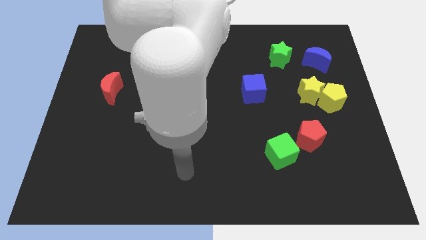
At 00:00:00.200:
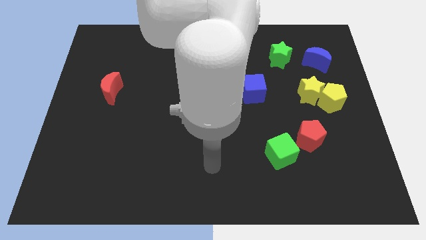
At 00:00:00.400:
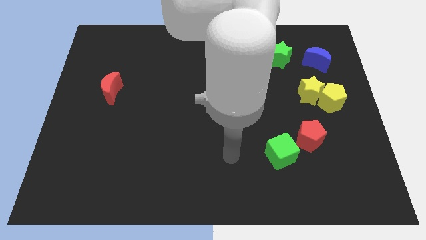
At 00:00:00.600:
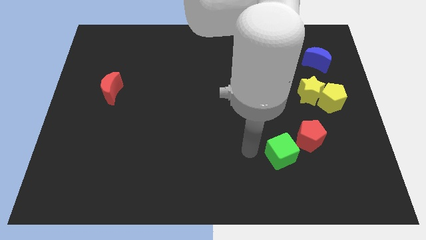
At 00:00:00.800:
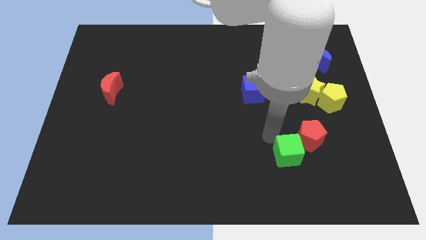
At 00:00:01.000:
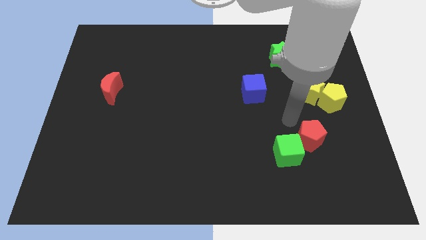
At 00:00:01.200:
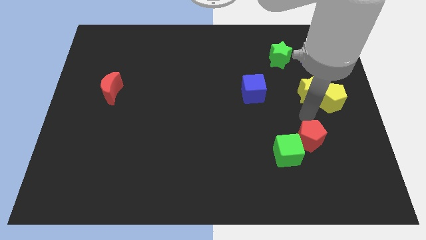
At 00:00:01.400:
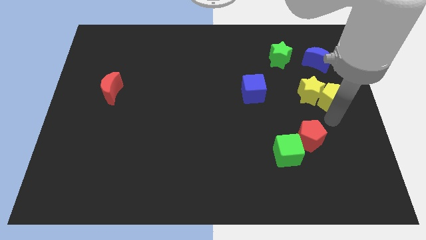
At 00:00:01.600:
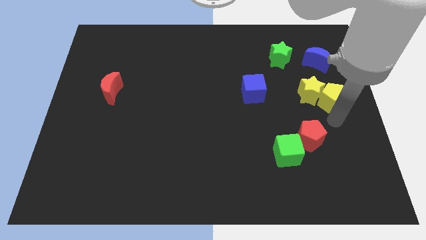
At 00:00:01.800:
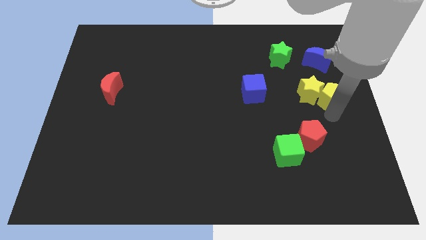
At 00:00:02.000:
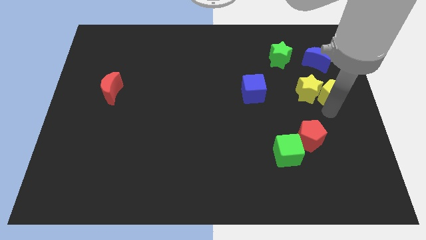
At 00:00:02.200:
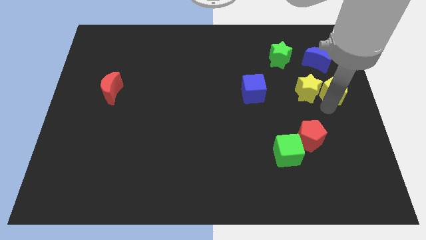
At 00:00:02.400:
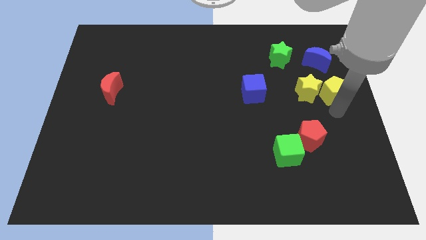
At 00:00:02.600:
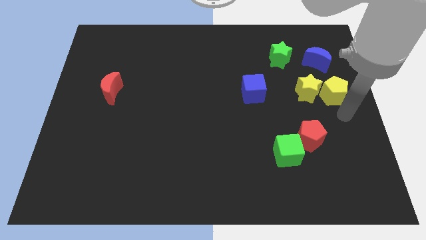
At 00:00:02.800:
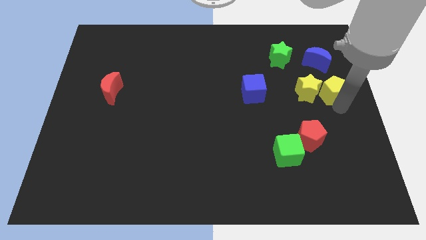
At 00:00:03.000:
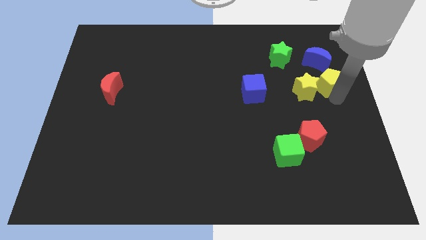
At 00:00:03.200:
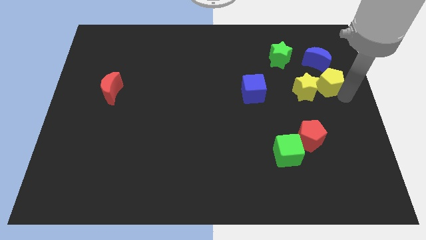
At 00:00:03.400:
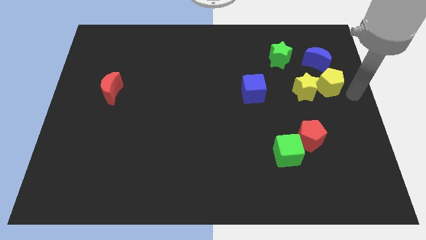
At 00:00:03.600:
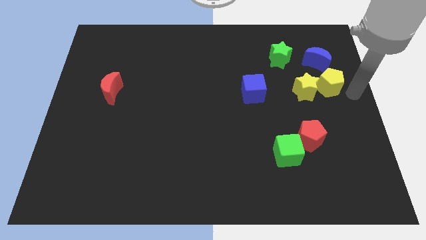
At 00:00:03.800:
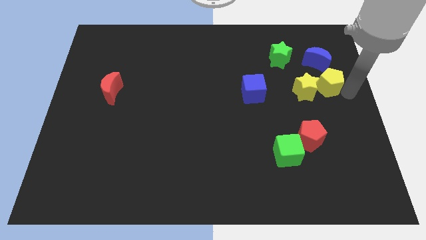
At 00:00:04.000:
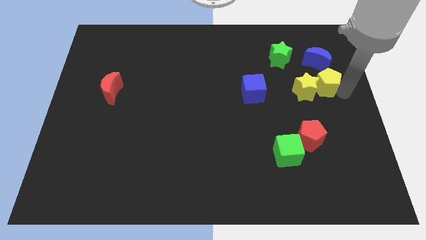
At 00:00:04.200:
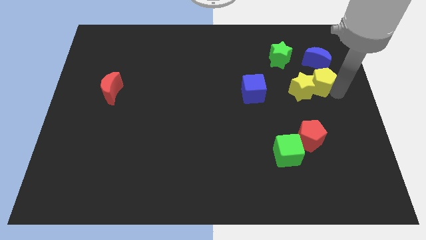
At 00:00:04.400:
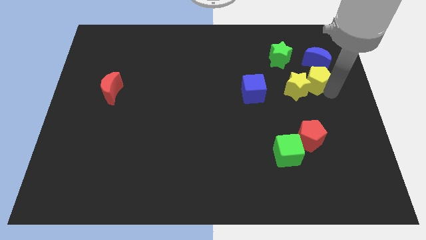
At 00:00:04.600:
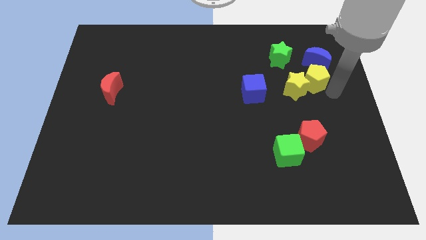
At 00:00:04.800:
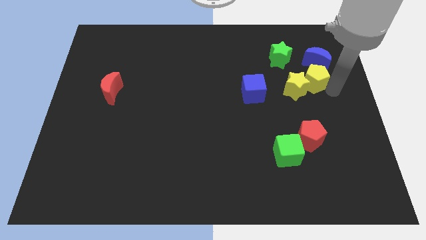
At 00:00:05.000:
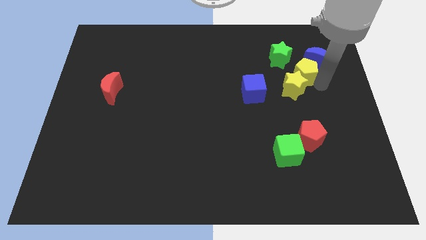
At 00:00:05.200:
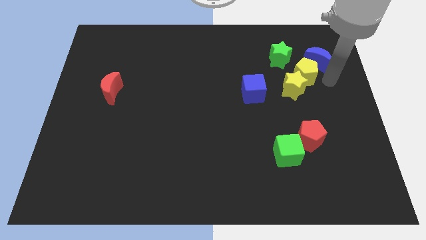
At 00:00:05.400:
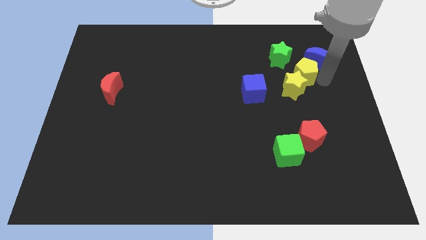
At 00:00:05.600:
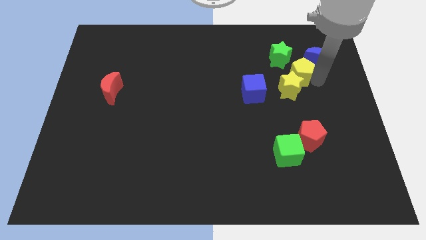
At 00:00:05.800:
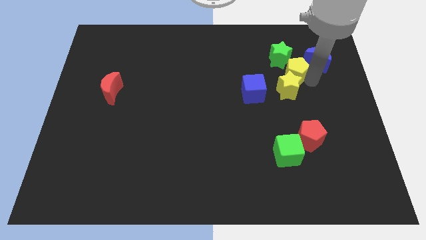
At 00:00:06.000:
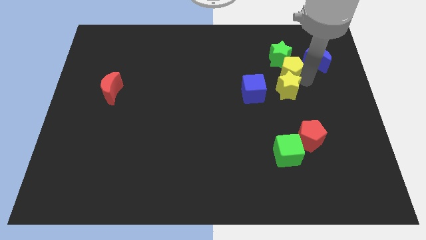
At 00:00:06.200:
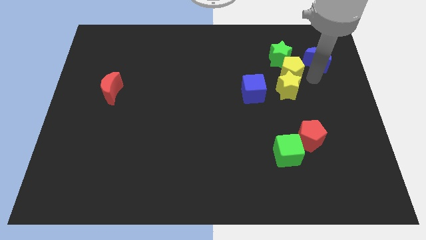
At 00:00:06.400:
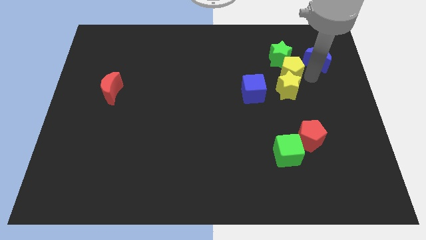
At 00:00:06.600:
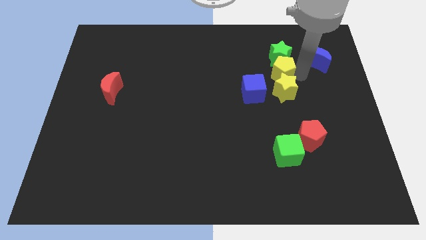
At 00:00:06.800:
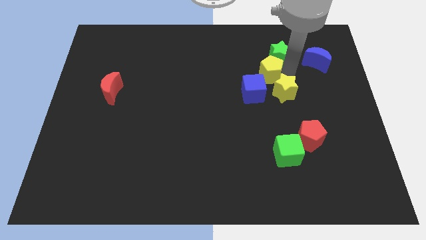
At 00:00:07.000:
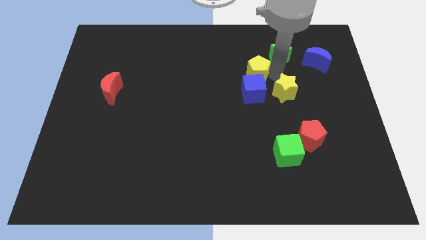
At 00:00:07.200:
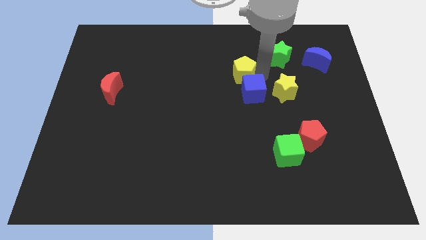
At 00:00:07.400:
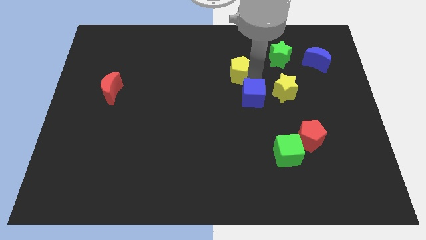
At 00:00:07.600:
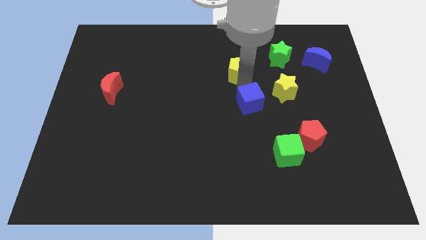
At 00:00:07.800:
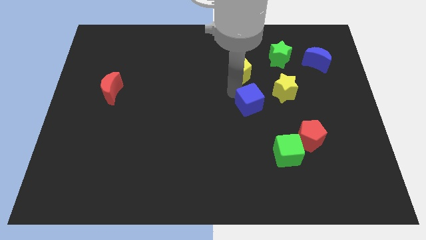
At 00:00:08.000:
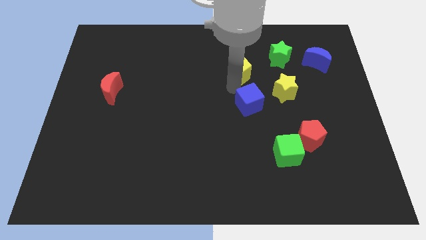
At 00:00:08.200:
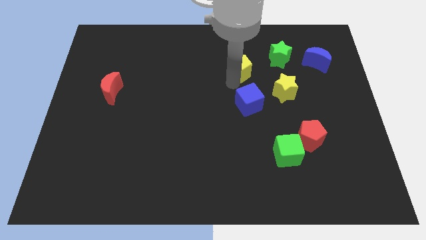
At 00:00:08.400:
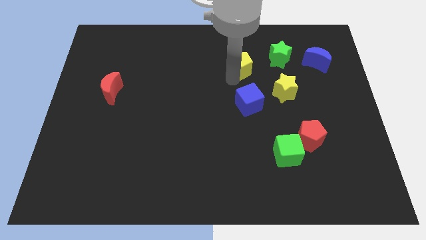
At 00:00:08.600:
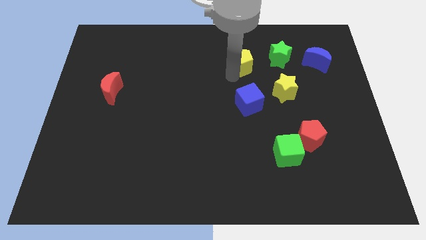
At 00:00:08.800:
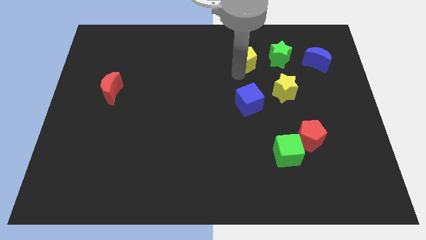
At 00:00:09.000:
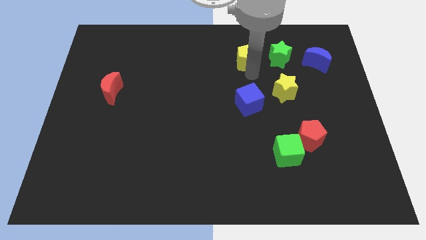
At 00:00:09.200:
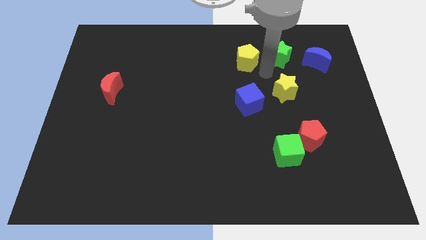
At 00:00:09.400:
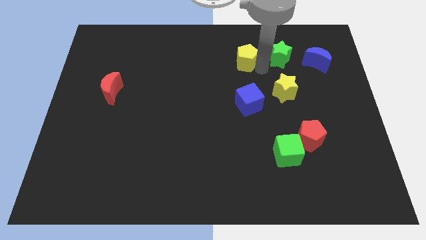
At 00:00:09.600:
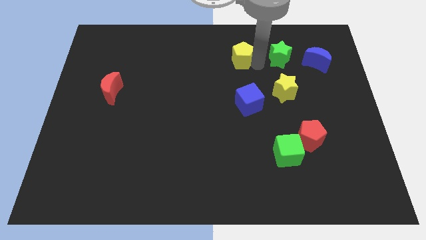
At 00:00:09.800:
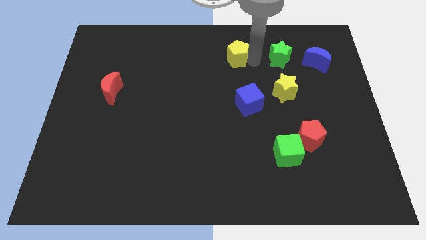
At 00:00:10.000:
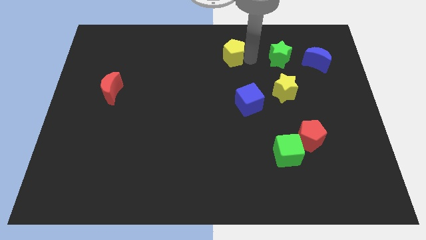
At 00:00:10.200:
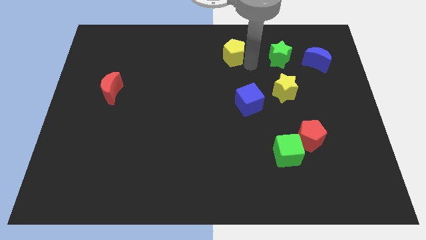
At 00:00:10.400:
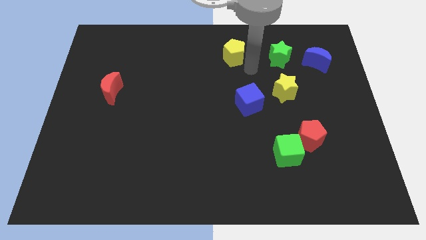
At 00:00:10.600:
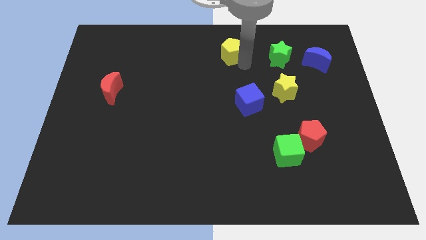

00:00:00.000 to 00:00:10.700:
put the yellow pentagon to the top side

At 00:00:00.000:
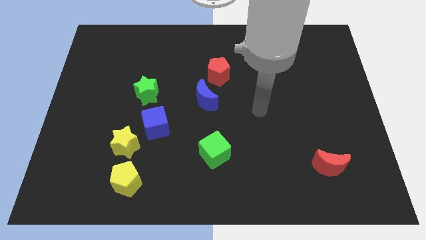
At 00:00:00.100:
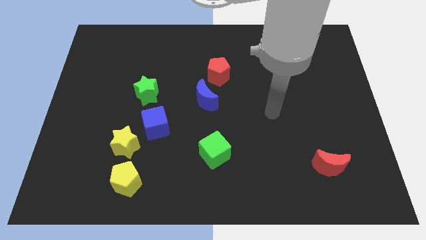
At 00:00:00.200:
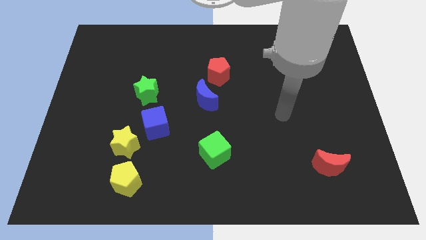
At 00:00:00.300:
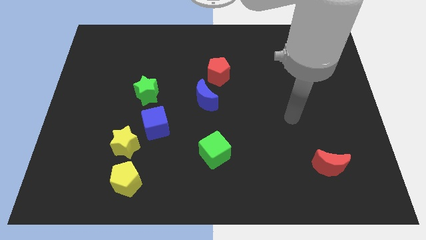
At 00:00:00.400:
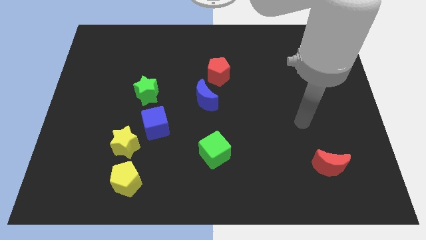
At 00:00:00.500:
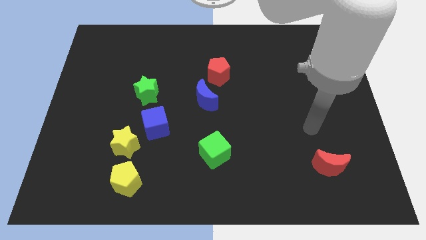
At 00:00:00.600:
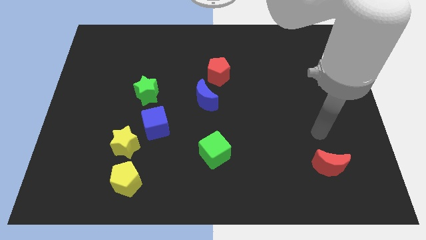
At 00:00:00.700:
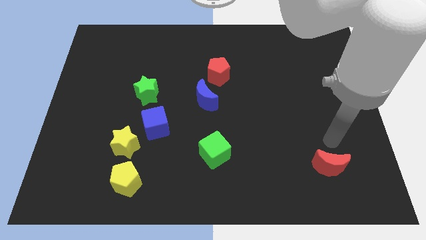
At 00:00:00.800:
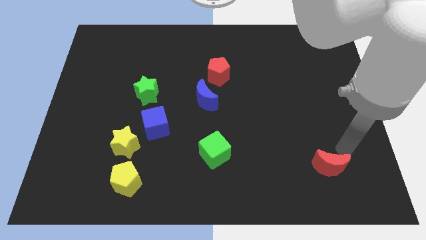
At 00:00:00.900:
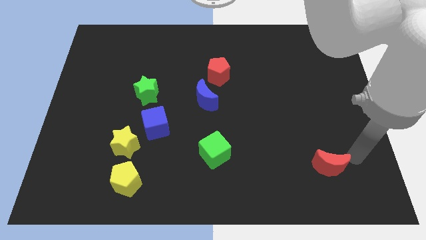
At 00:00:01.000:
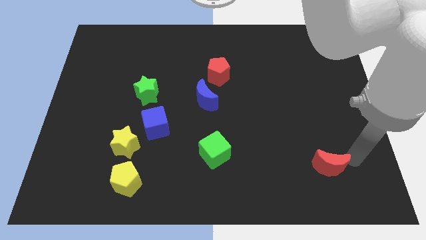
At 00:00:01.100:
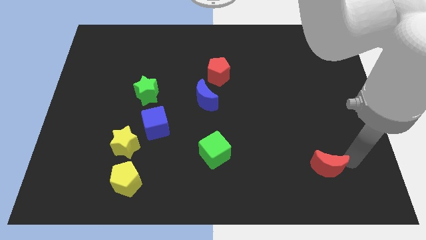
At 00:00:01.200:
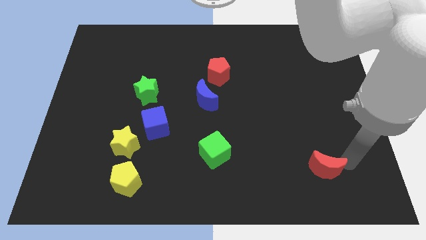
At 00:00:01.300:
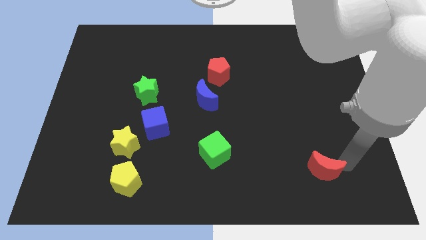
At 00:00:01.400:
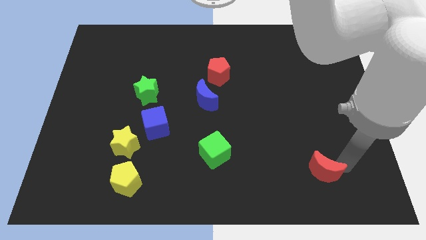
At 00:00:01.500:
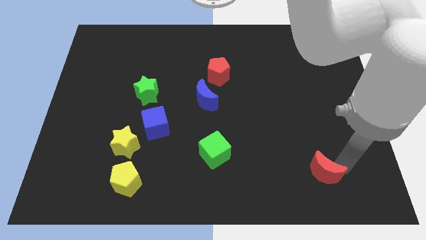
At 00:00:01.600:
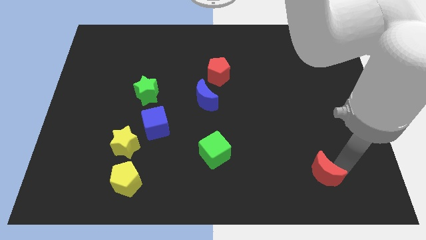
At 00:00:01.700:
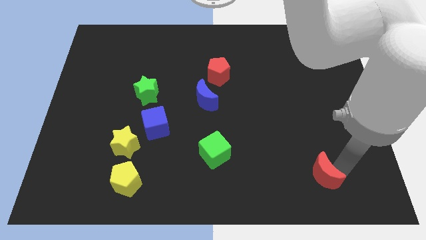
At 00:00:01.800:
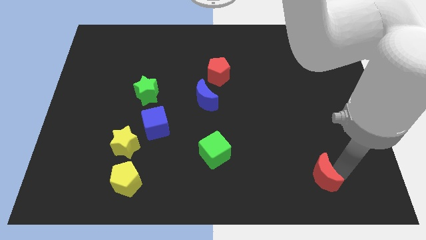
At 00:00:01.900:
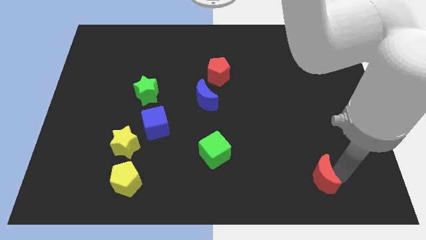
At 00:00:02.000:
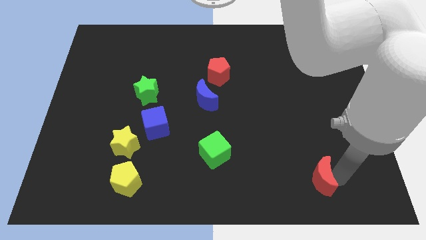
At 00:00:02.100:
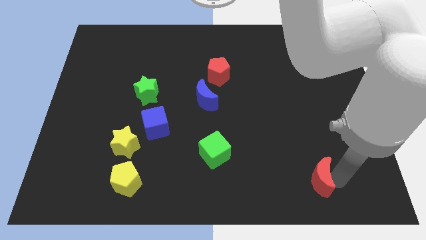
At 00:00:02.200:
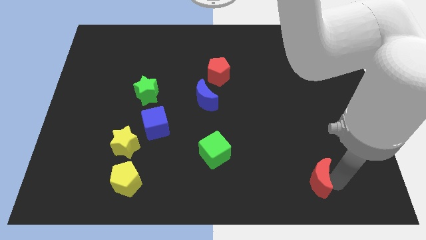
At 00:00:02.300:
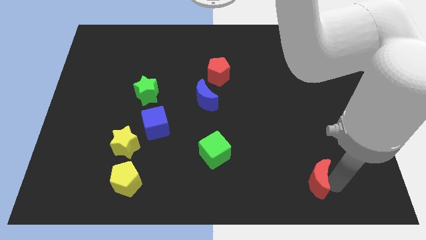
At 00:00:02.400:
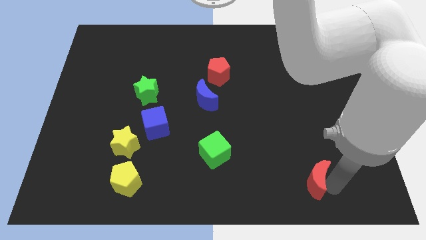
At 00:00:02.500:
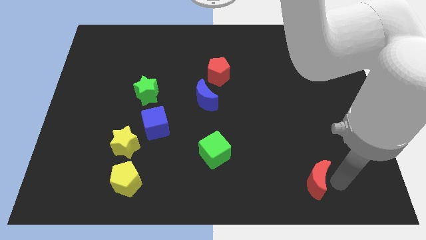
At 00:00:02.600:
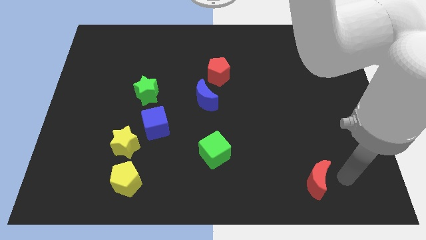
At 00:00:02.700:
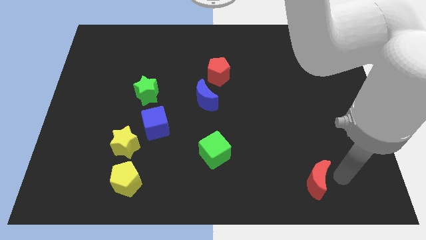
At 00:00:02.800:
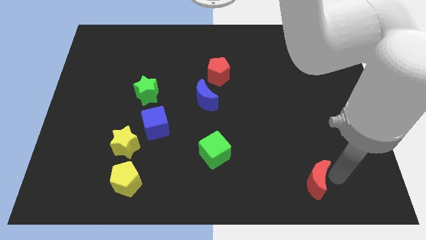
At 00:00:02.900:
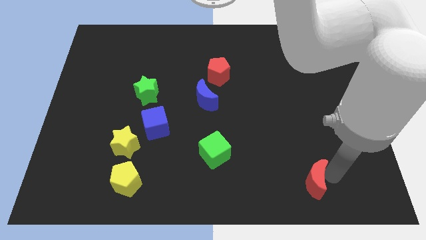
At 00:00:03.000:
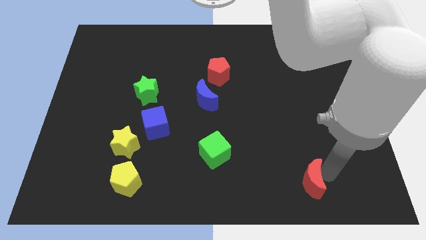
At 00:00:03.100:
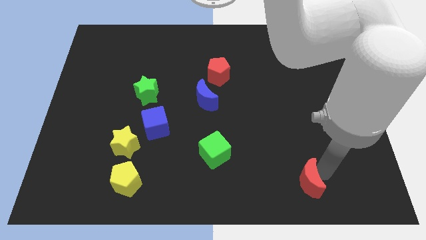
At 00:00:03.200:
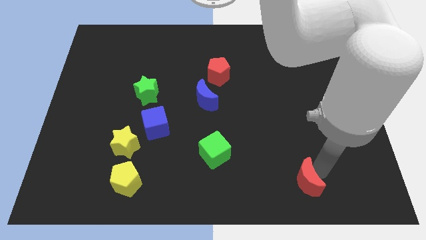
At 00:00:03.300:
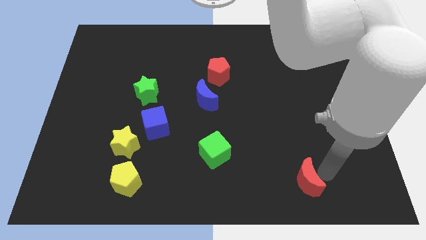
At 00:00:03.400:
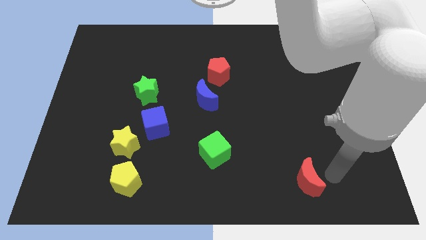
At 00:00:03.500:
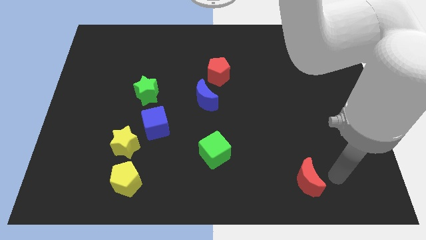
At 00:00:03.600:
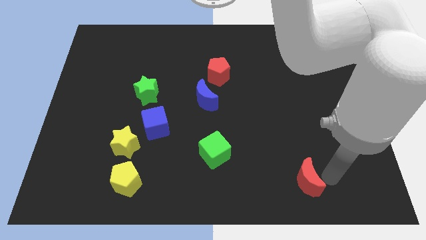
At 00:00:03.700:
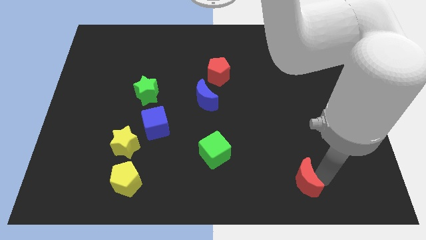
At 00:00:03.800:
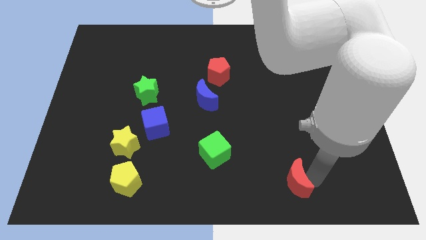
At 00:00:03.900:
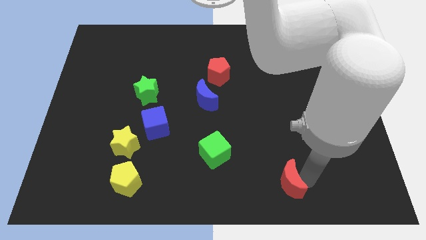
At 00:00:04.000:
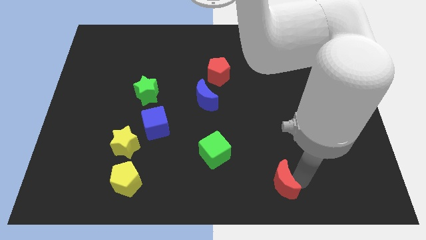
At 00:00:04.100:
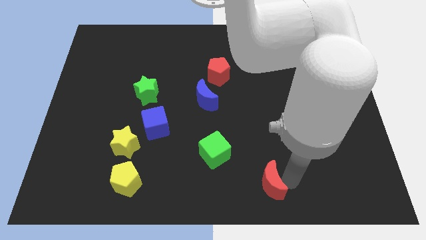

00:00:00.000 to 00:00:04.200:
push the red moon to the bottom
